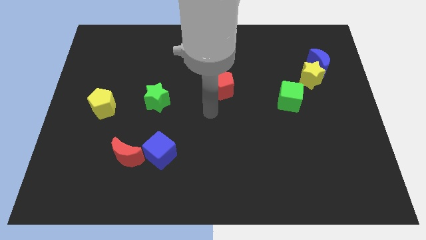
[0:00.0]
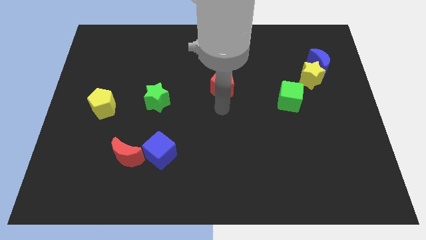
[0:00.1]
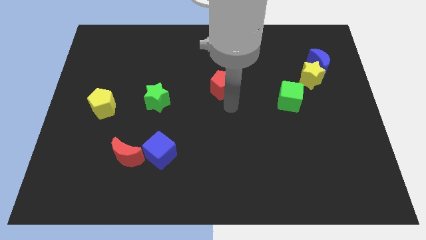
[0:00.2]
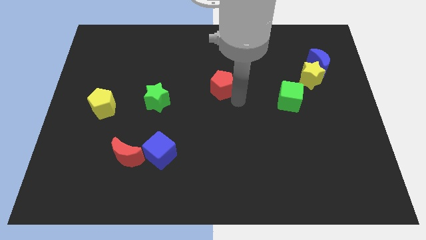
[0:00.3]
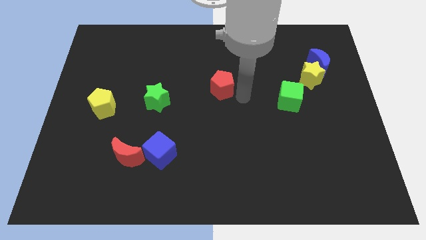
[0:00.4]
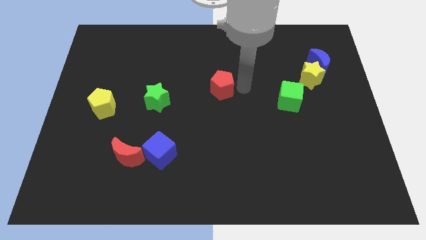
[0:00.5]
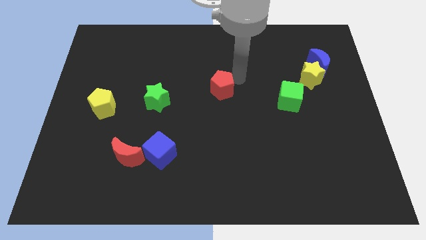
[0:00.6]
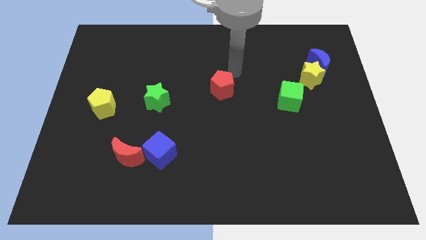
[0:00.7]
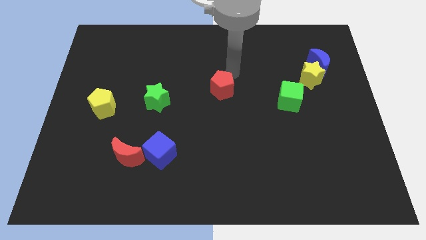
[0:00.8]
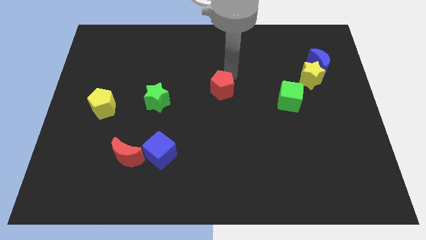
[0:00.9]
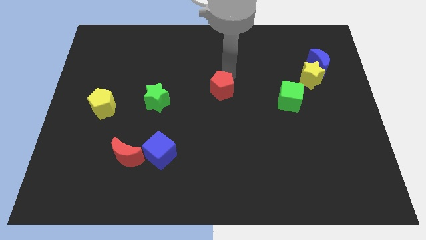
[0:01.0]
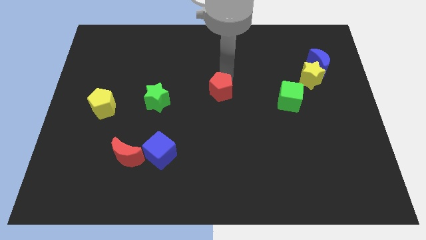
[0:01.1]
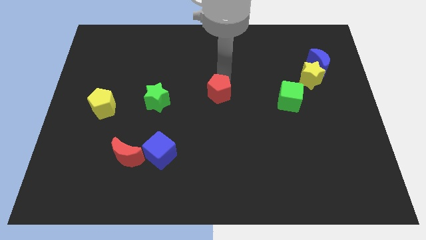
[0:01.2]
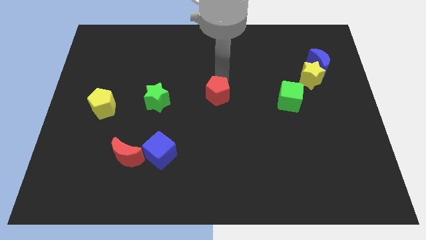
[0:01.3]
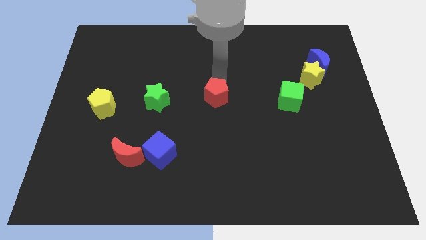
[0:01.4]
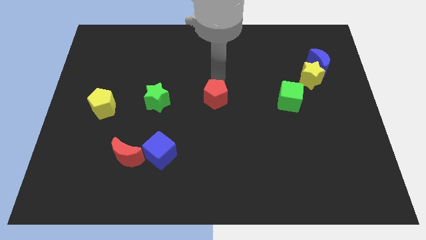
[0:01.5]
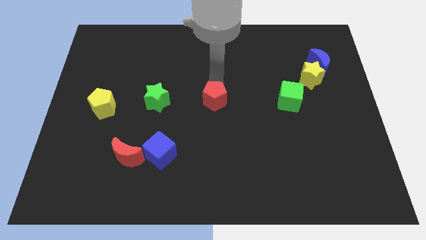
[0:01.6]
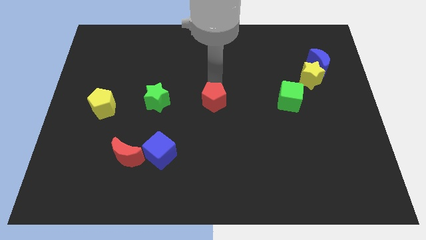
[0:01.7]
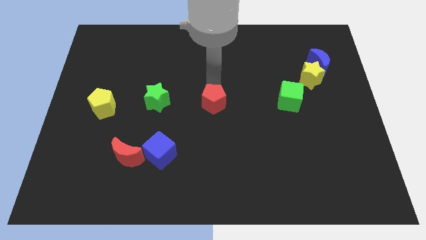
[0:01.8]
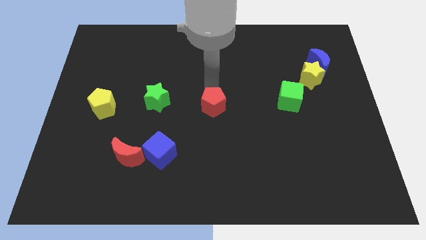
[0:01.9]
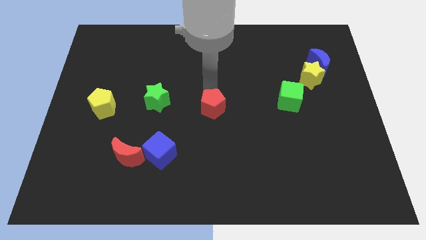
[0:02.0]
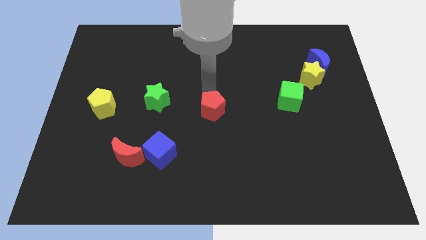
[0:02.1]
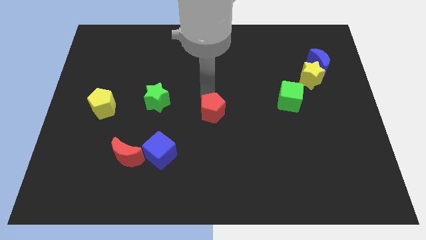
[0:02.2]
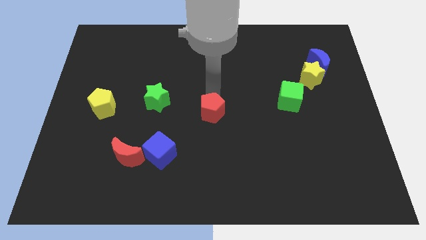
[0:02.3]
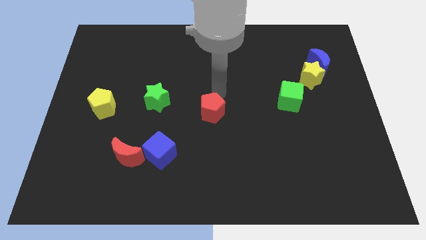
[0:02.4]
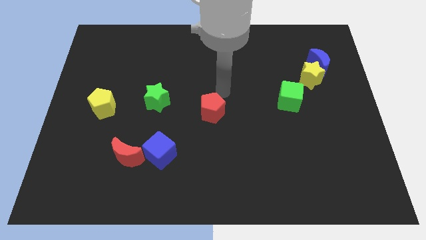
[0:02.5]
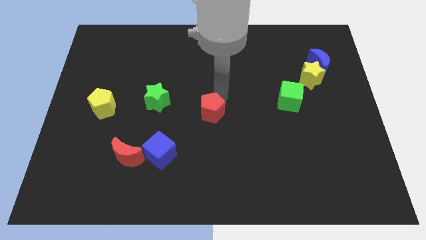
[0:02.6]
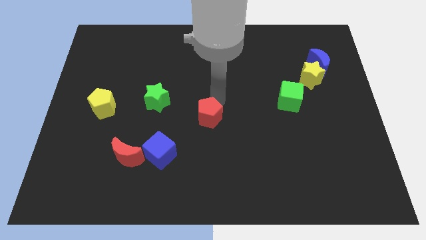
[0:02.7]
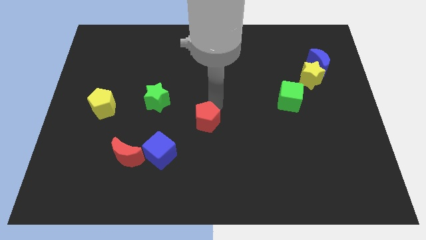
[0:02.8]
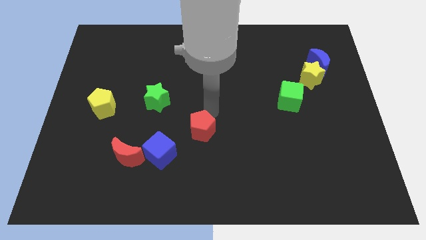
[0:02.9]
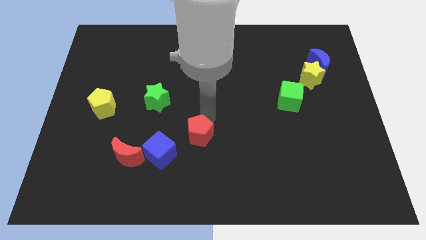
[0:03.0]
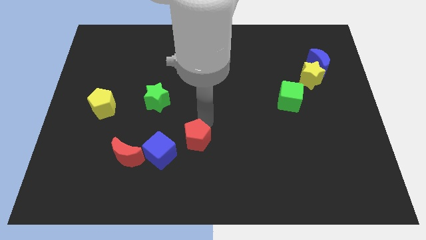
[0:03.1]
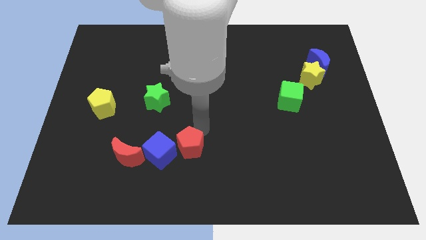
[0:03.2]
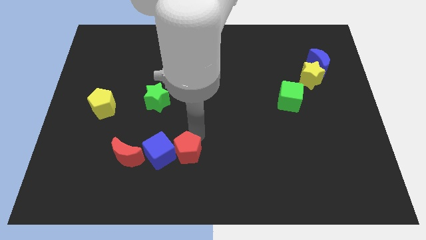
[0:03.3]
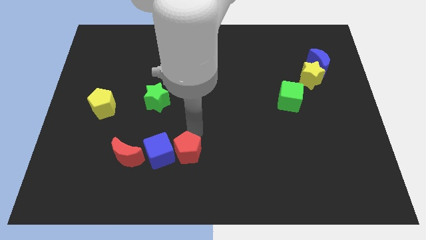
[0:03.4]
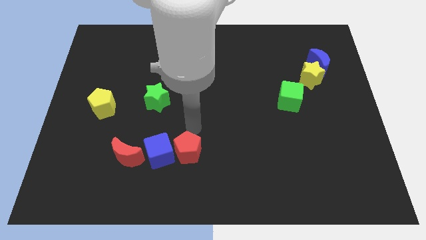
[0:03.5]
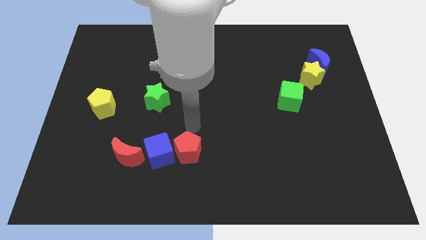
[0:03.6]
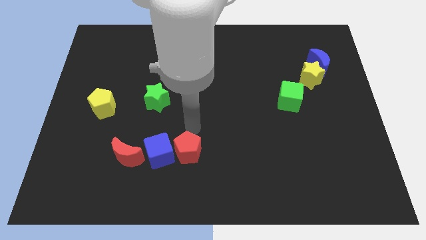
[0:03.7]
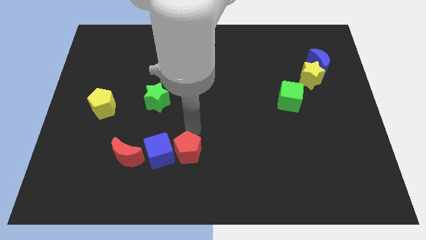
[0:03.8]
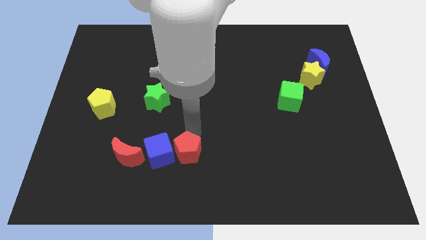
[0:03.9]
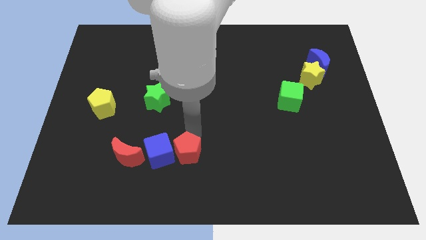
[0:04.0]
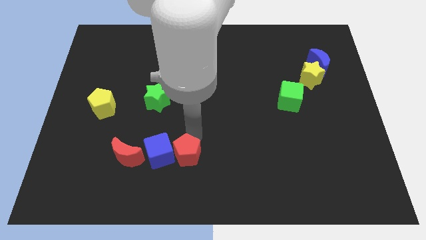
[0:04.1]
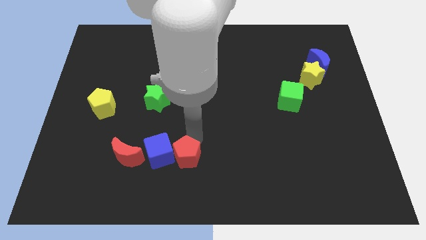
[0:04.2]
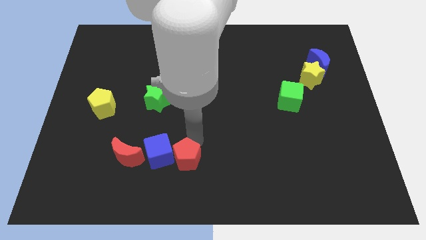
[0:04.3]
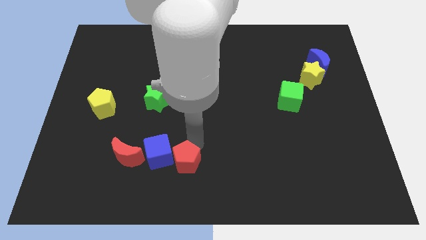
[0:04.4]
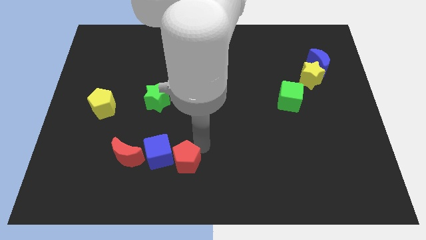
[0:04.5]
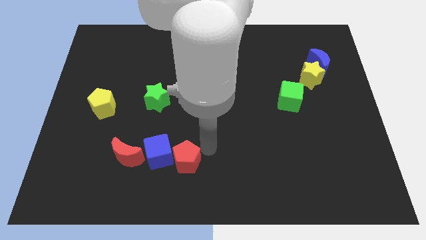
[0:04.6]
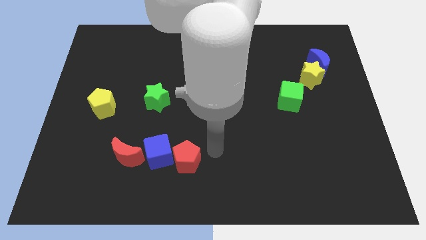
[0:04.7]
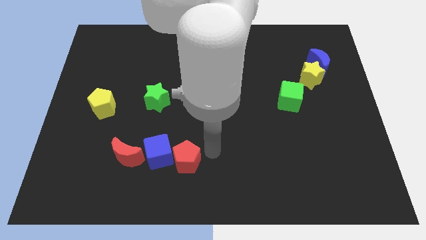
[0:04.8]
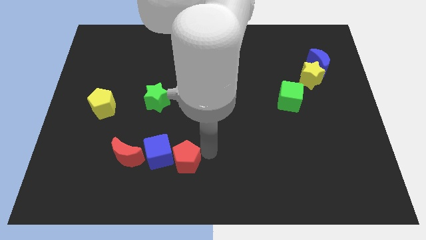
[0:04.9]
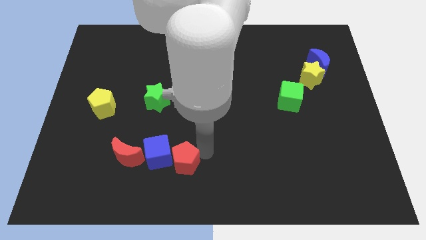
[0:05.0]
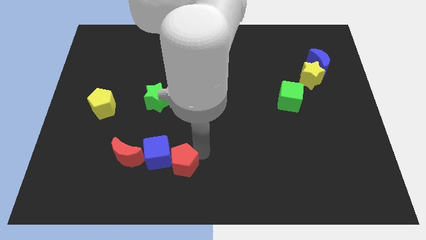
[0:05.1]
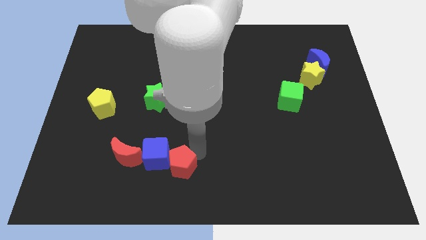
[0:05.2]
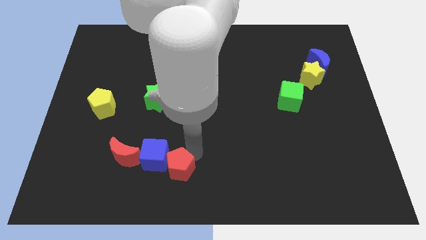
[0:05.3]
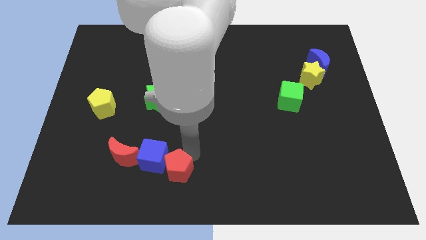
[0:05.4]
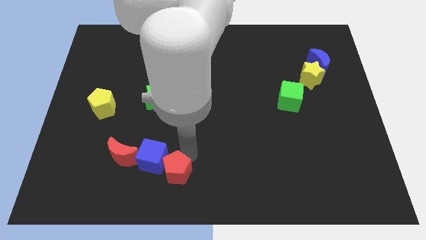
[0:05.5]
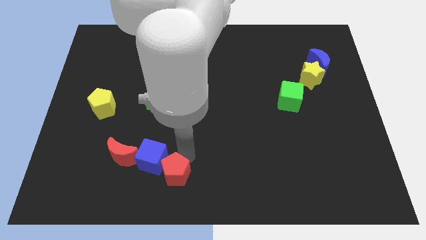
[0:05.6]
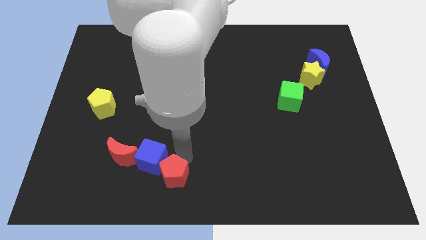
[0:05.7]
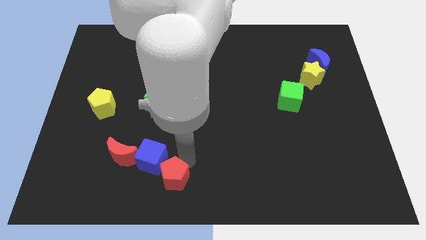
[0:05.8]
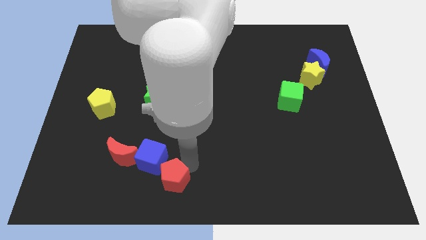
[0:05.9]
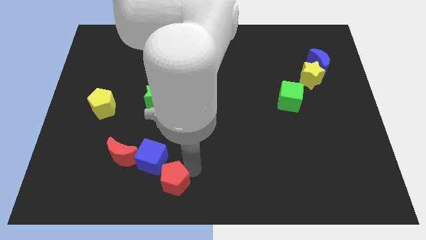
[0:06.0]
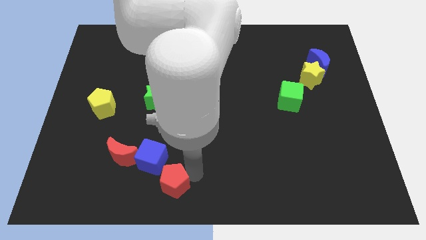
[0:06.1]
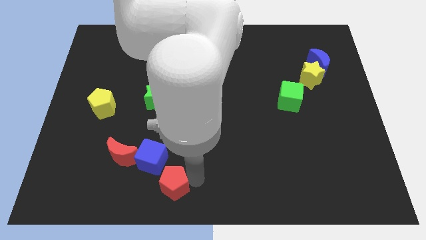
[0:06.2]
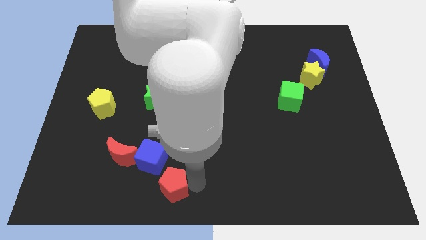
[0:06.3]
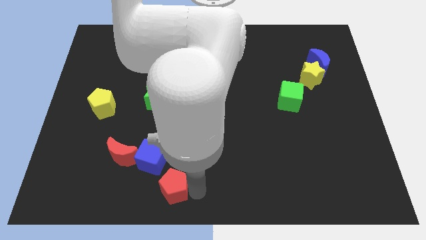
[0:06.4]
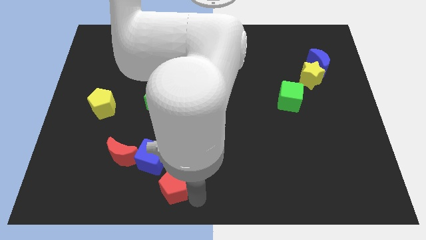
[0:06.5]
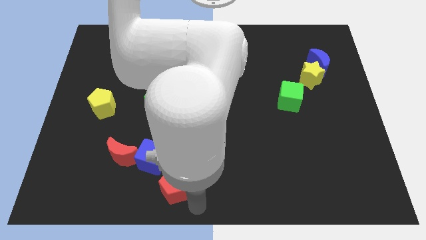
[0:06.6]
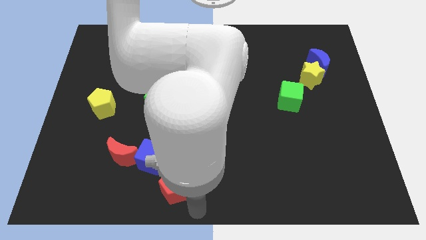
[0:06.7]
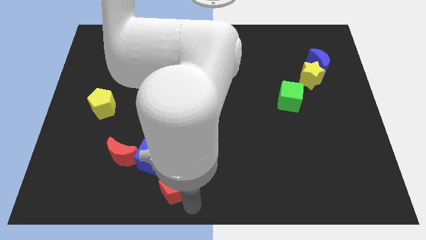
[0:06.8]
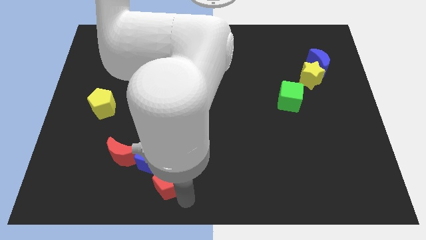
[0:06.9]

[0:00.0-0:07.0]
move the red pentagon diagonally down and left

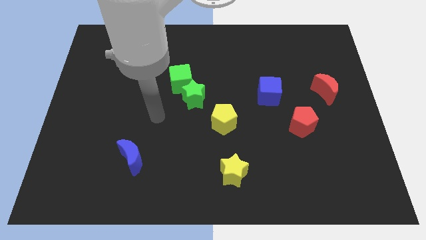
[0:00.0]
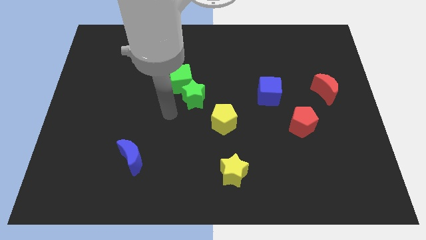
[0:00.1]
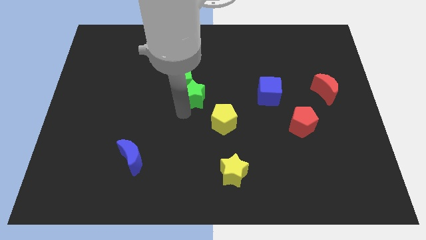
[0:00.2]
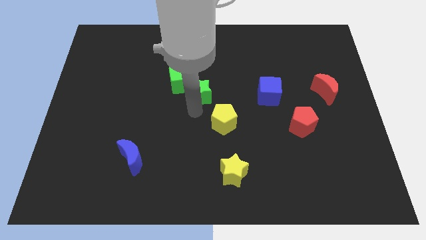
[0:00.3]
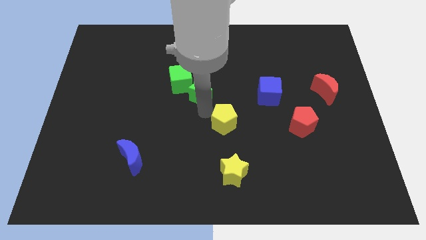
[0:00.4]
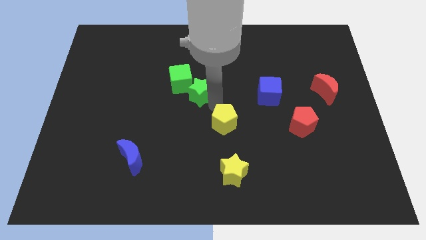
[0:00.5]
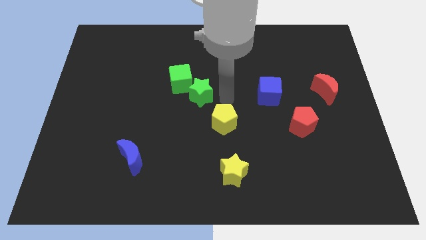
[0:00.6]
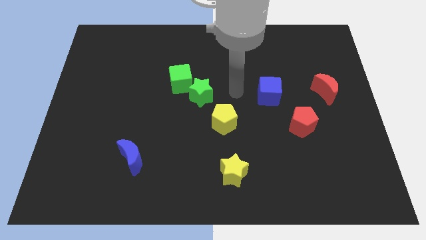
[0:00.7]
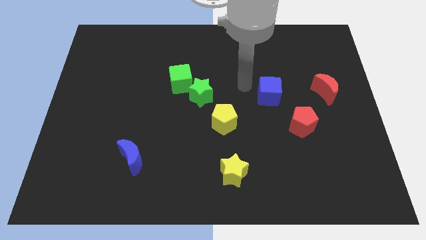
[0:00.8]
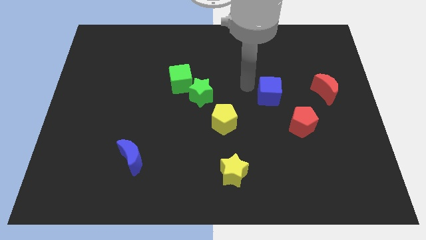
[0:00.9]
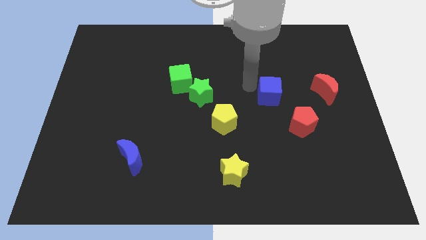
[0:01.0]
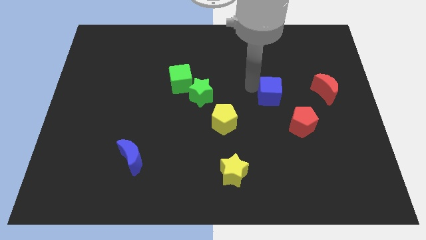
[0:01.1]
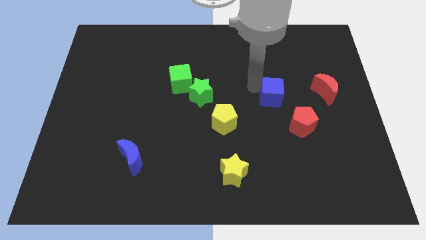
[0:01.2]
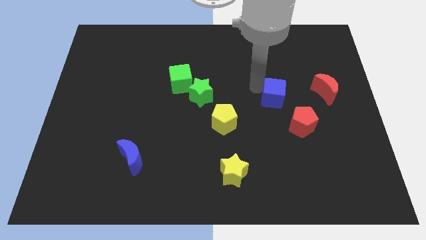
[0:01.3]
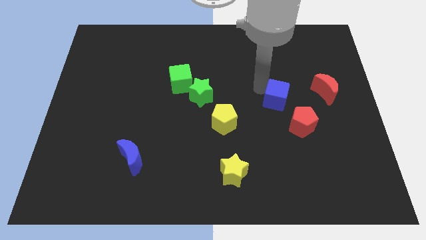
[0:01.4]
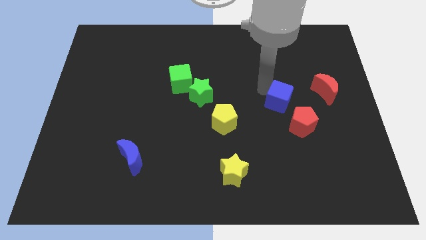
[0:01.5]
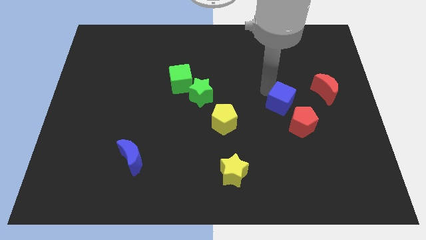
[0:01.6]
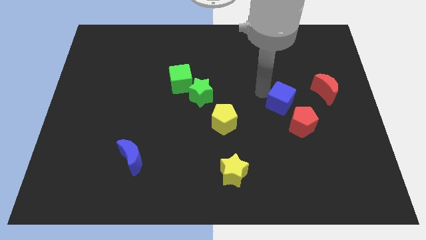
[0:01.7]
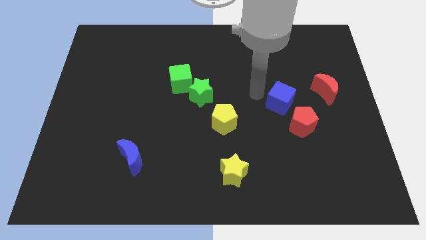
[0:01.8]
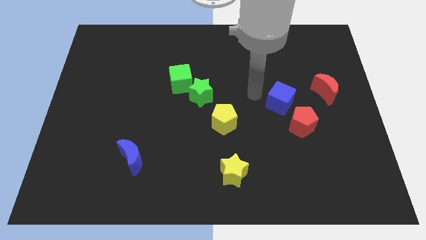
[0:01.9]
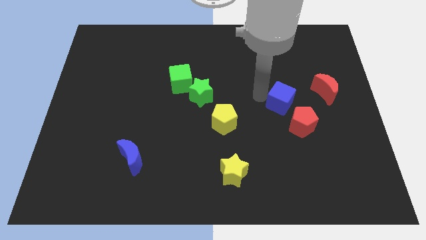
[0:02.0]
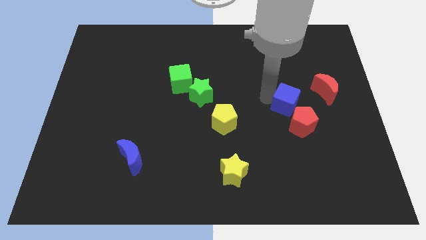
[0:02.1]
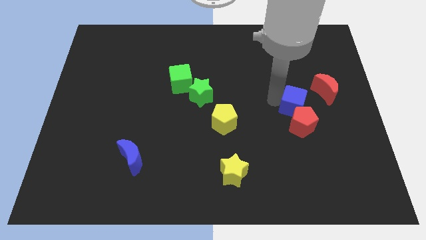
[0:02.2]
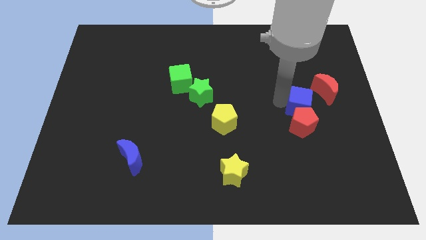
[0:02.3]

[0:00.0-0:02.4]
slightly slide the blue cube down and right
